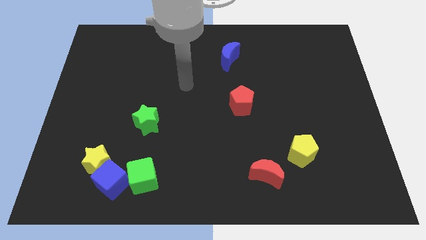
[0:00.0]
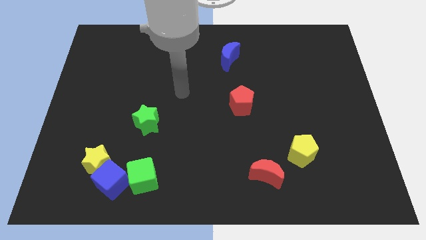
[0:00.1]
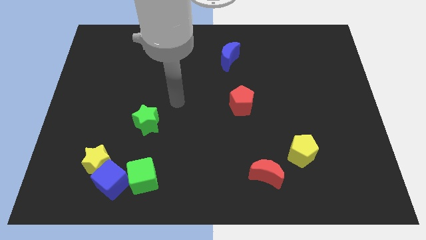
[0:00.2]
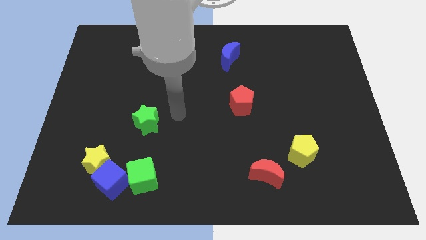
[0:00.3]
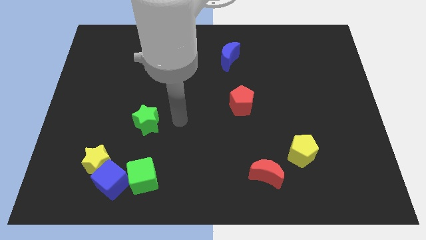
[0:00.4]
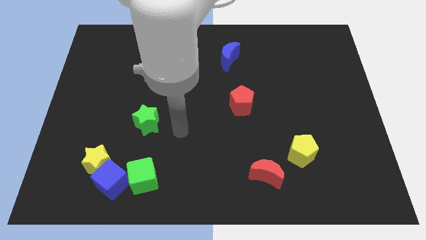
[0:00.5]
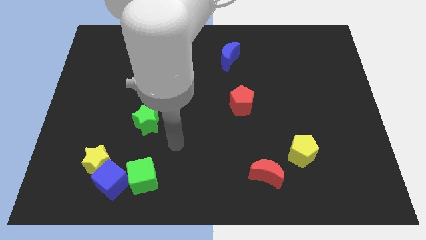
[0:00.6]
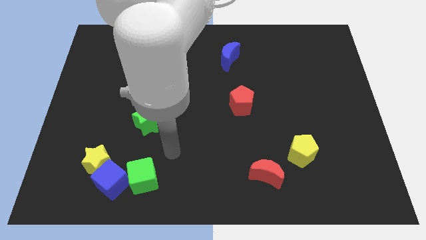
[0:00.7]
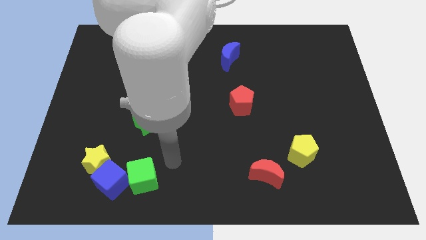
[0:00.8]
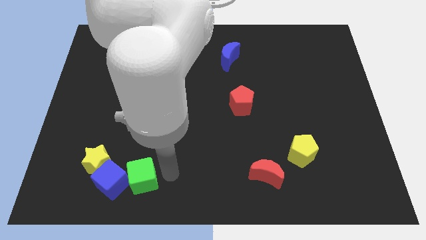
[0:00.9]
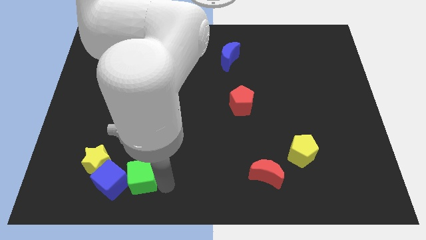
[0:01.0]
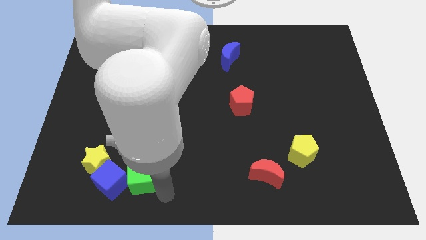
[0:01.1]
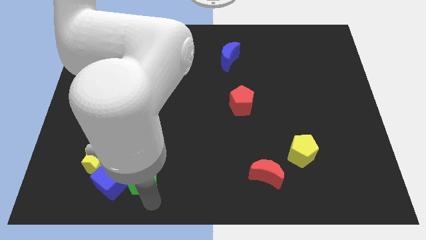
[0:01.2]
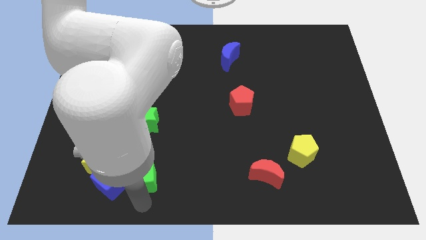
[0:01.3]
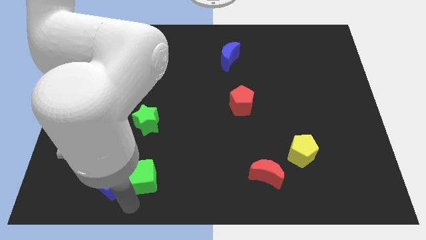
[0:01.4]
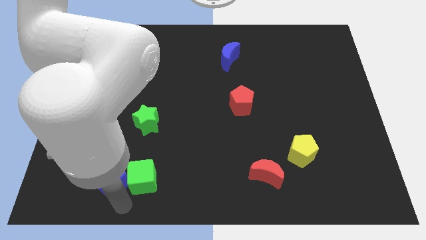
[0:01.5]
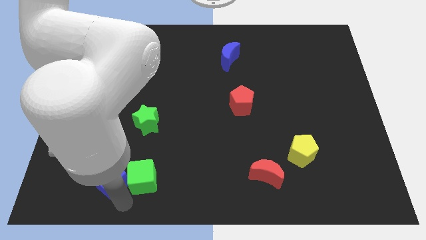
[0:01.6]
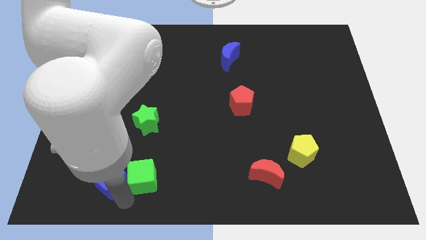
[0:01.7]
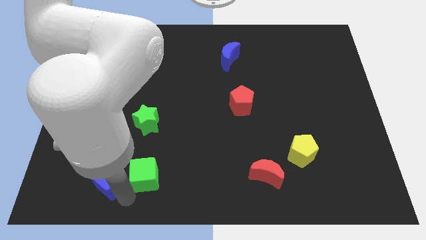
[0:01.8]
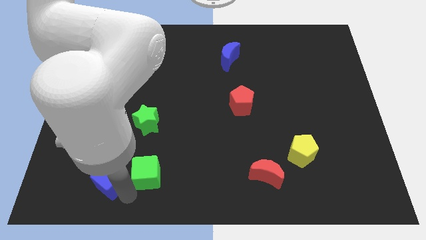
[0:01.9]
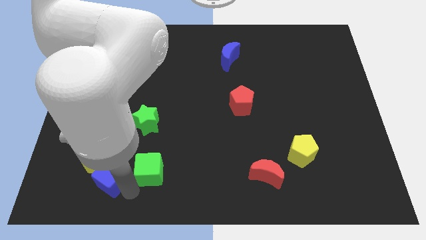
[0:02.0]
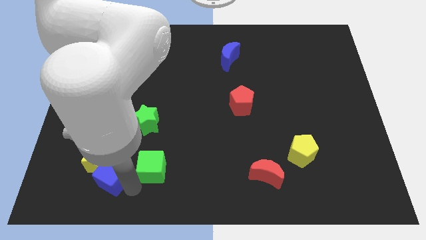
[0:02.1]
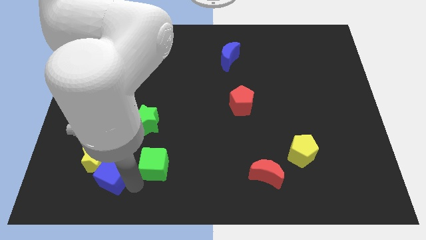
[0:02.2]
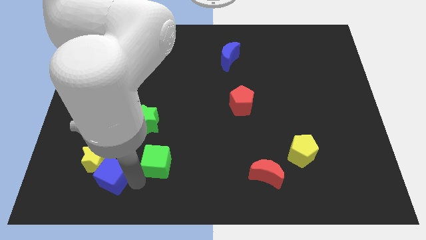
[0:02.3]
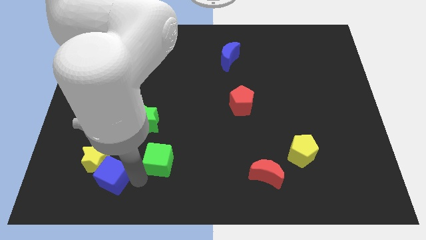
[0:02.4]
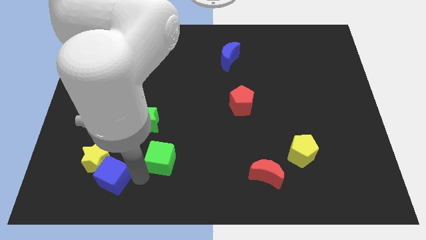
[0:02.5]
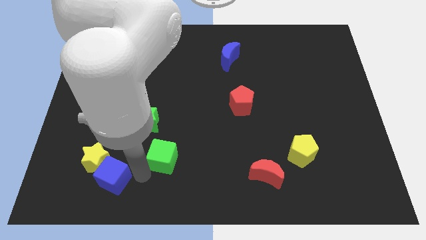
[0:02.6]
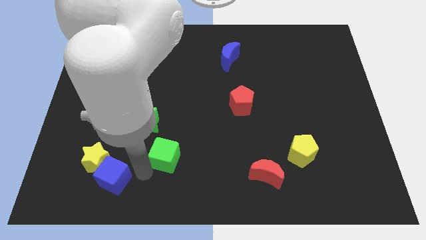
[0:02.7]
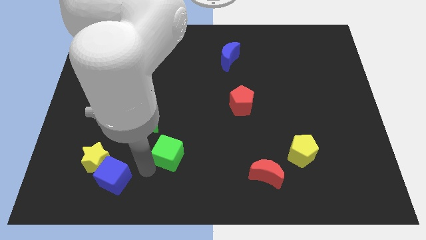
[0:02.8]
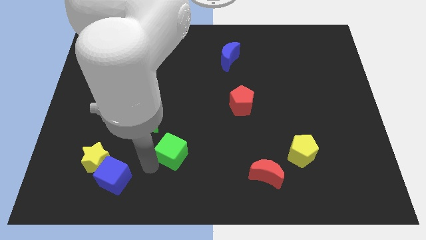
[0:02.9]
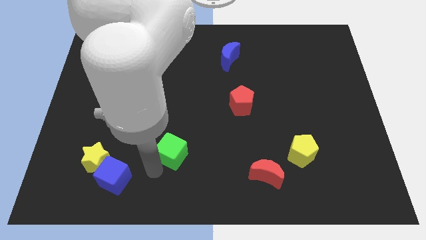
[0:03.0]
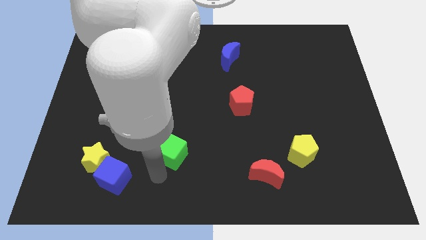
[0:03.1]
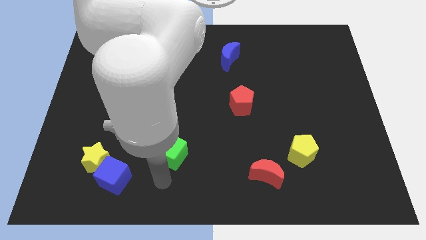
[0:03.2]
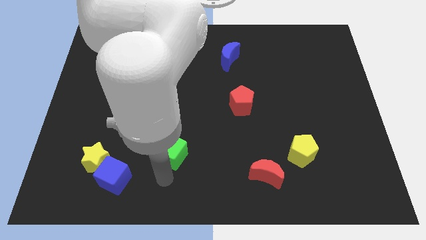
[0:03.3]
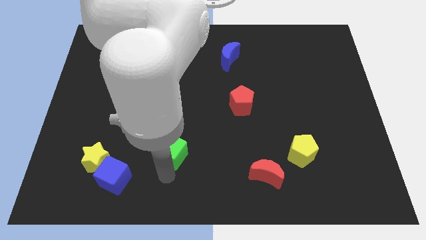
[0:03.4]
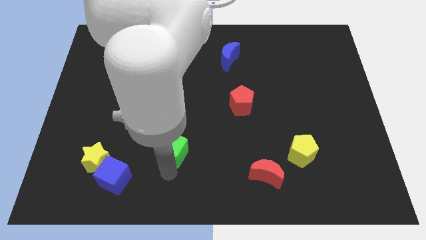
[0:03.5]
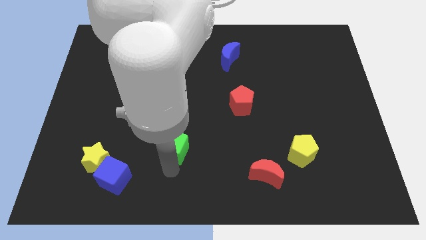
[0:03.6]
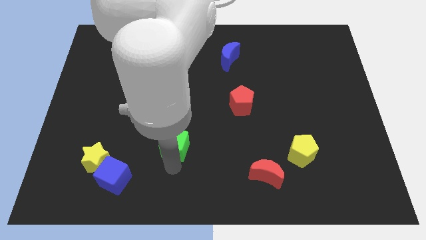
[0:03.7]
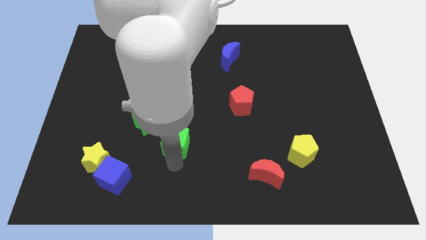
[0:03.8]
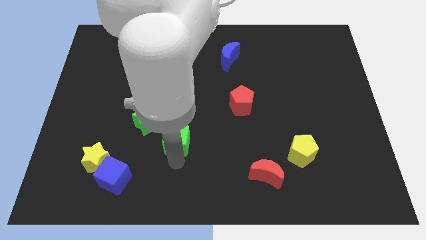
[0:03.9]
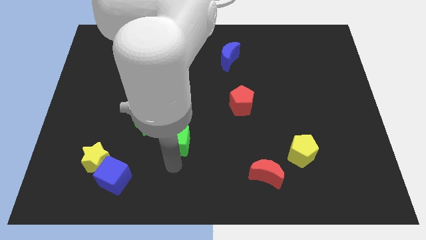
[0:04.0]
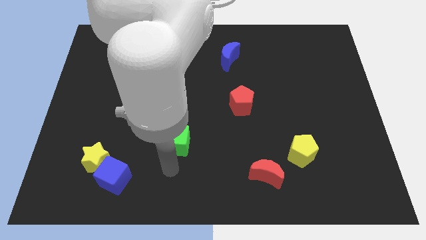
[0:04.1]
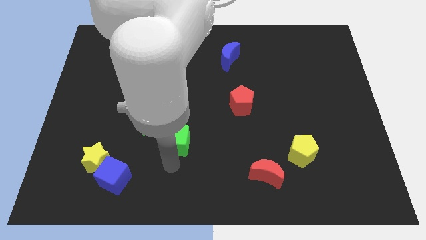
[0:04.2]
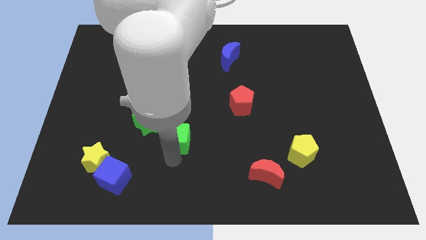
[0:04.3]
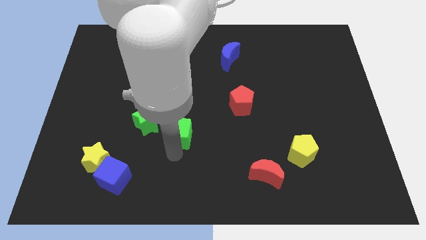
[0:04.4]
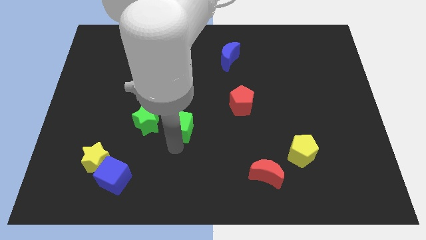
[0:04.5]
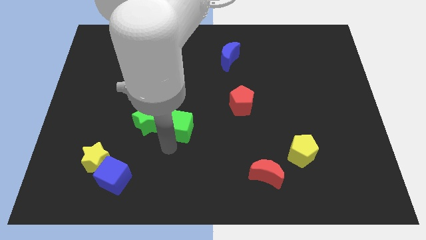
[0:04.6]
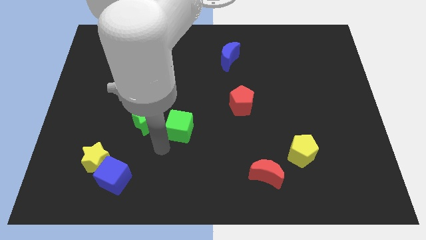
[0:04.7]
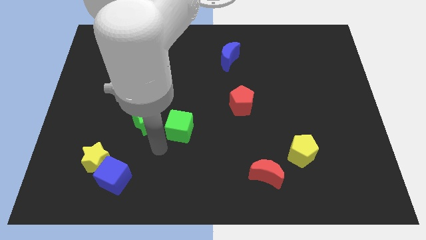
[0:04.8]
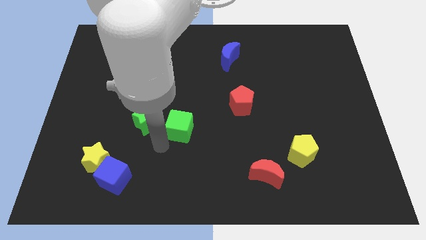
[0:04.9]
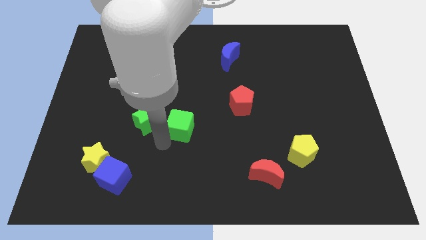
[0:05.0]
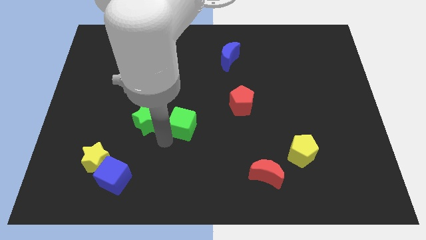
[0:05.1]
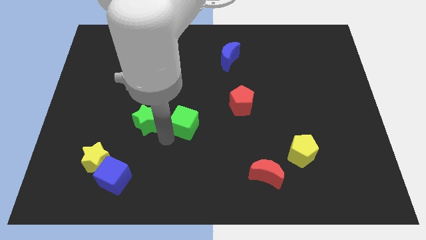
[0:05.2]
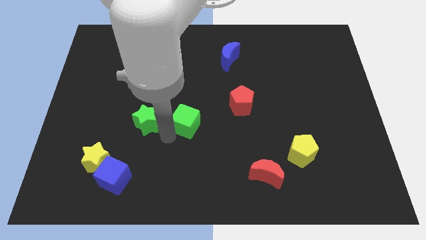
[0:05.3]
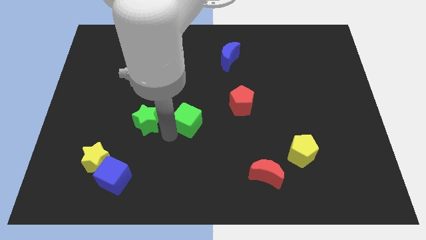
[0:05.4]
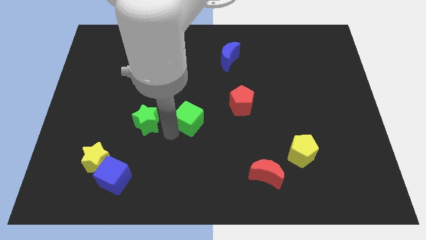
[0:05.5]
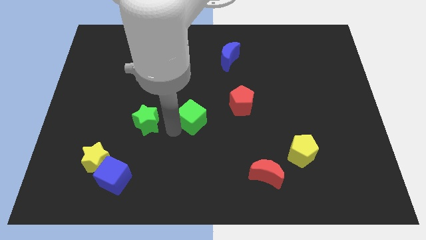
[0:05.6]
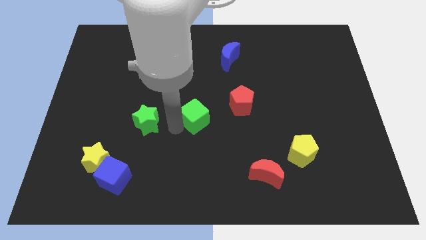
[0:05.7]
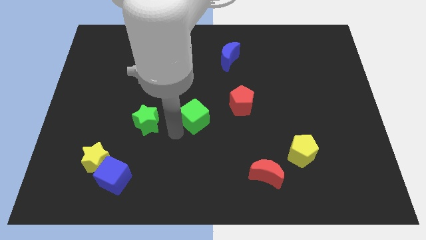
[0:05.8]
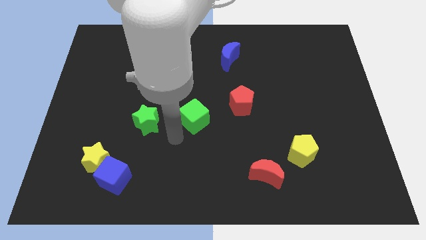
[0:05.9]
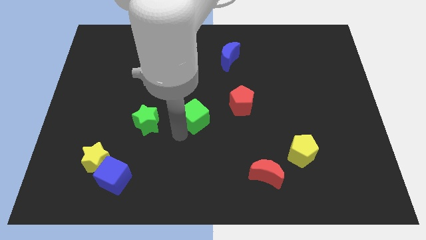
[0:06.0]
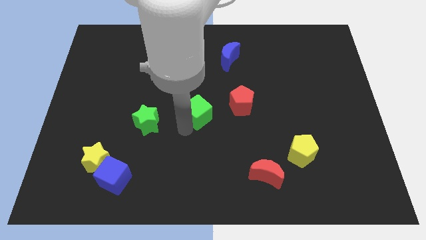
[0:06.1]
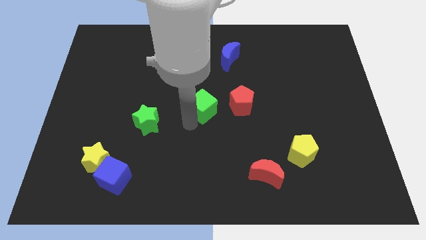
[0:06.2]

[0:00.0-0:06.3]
move the green cube diagonally up and right

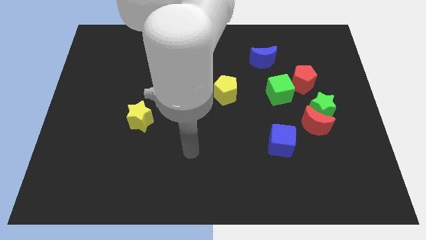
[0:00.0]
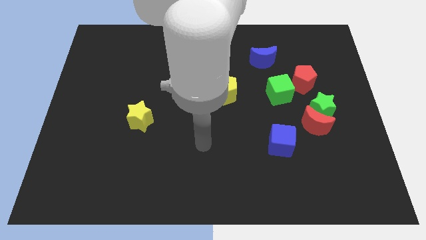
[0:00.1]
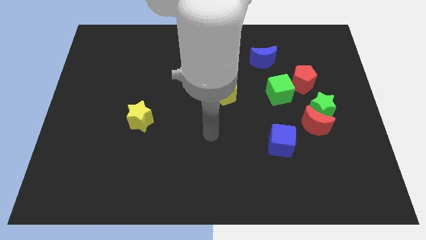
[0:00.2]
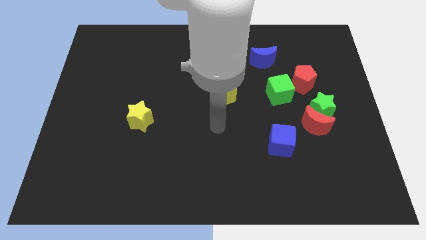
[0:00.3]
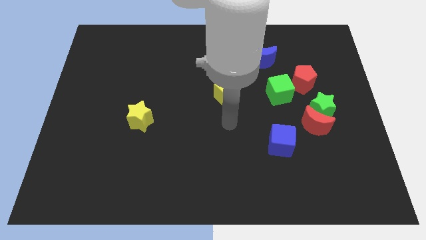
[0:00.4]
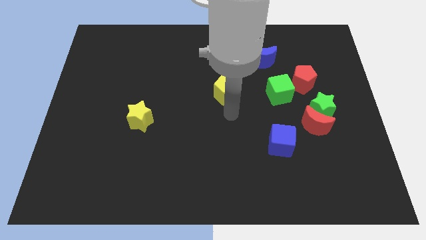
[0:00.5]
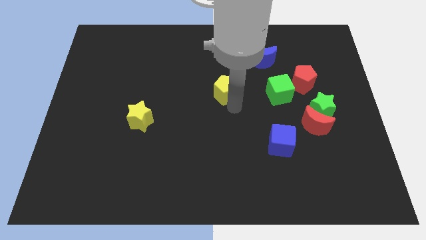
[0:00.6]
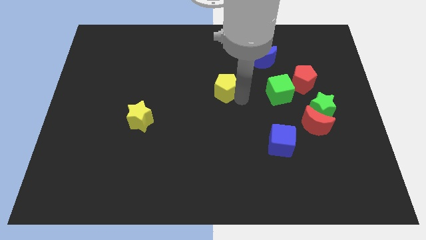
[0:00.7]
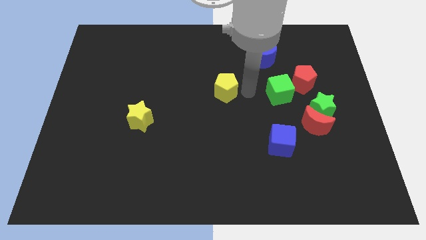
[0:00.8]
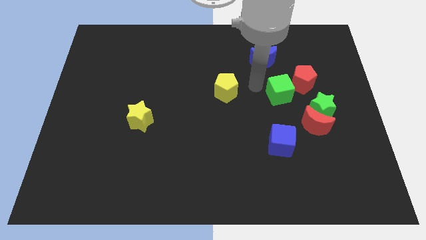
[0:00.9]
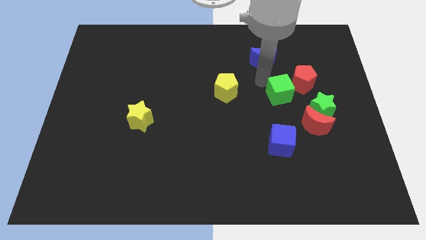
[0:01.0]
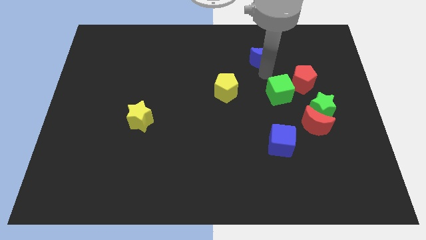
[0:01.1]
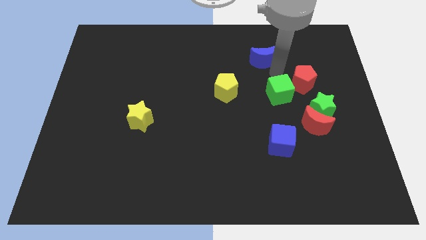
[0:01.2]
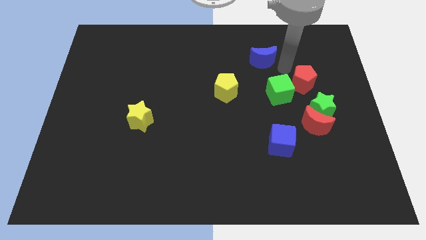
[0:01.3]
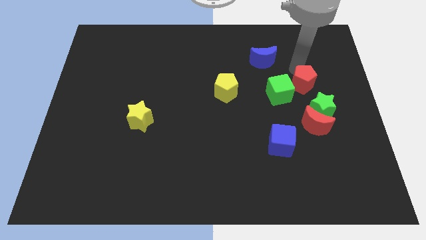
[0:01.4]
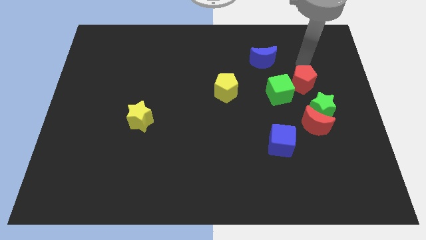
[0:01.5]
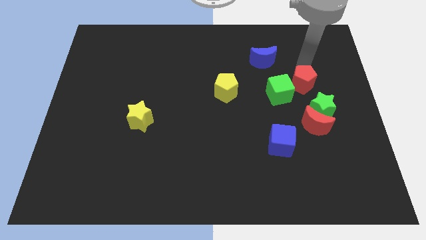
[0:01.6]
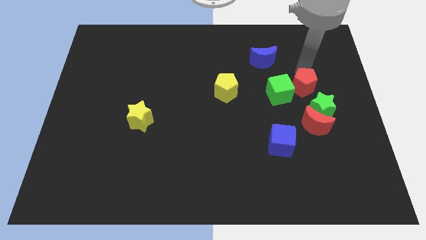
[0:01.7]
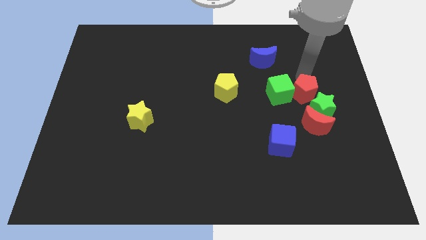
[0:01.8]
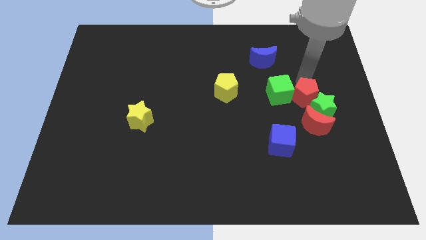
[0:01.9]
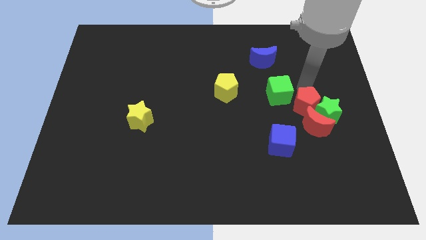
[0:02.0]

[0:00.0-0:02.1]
push the red pentagon down a little bit

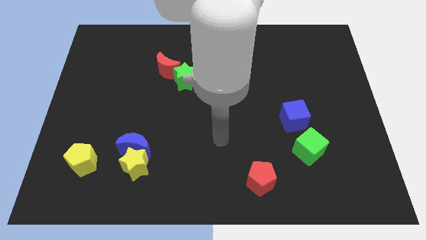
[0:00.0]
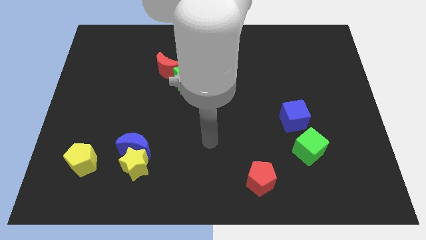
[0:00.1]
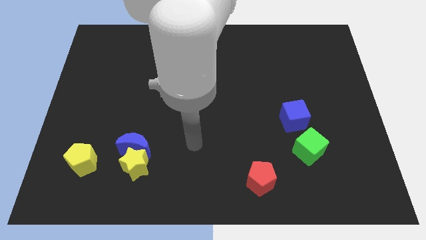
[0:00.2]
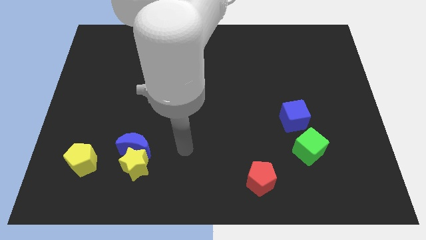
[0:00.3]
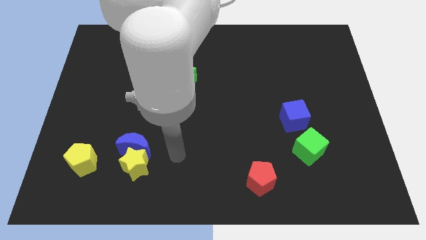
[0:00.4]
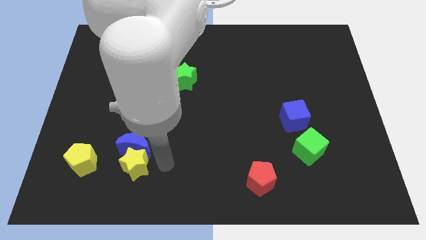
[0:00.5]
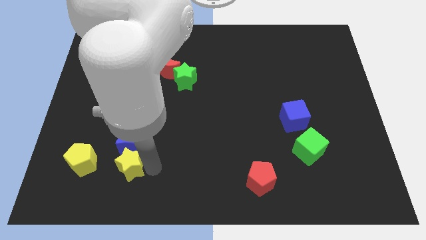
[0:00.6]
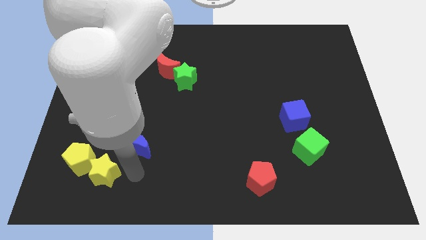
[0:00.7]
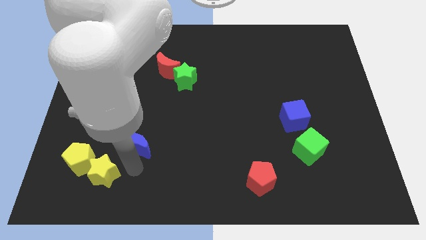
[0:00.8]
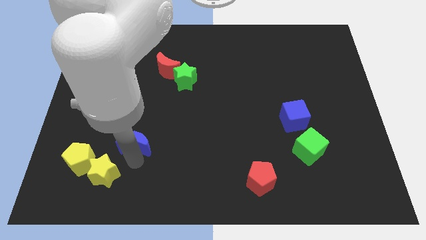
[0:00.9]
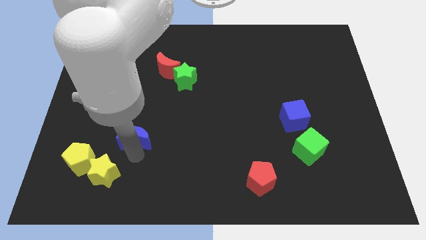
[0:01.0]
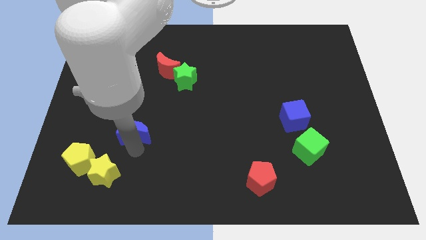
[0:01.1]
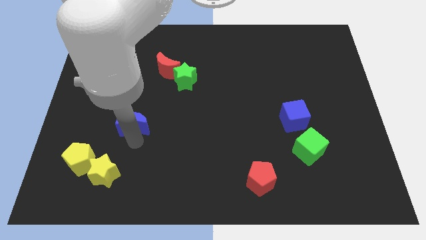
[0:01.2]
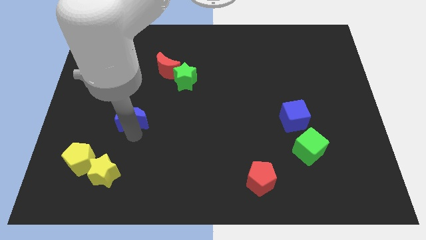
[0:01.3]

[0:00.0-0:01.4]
slide the blue moon up a bit
